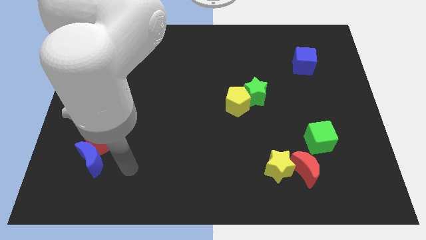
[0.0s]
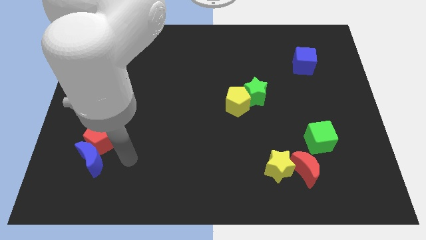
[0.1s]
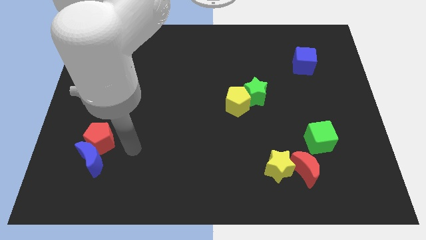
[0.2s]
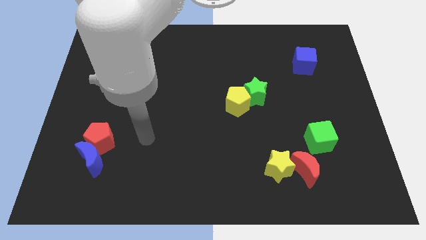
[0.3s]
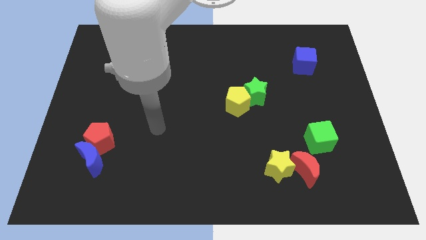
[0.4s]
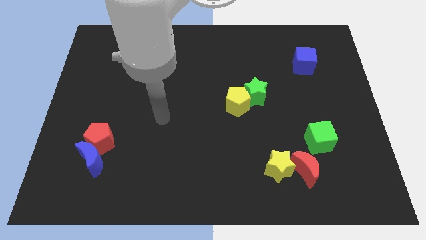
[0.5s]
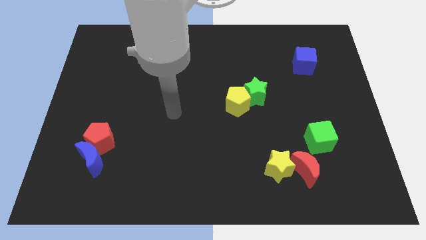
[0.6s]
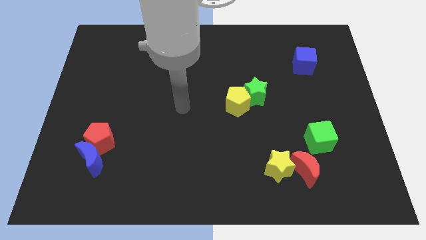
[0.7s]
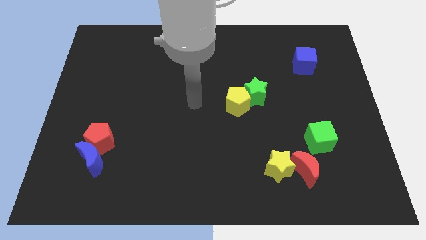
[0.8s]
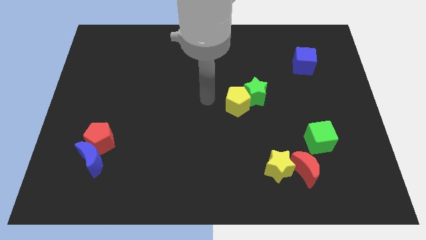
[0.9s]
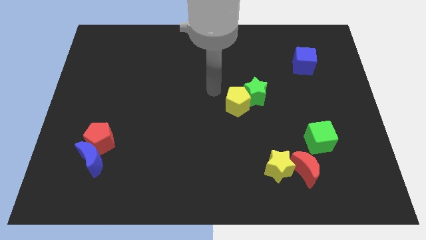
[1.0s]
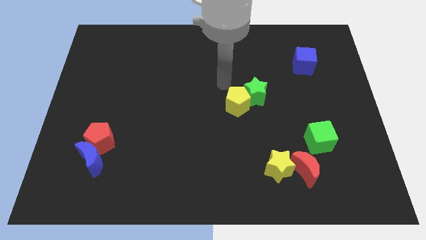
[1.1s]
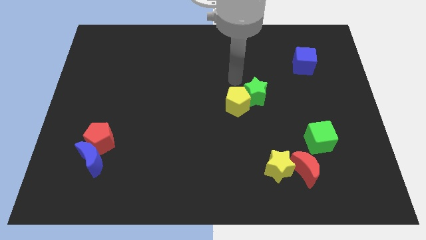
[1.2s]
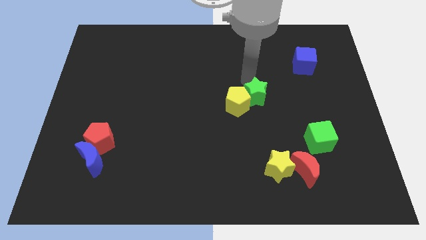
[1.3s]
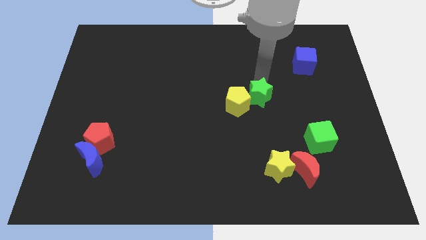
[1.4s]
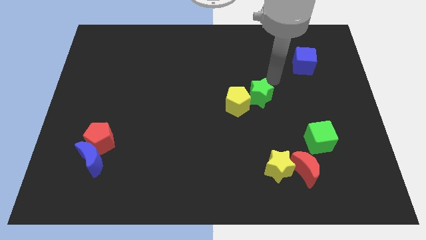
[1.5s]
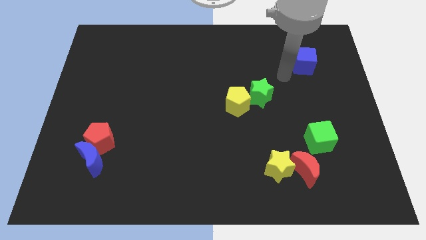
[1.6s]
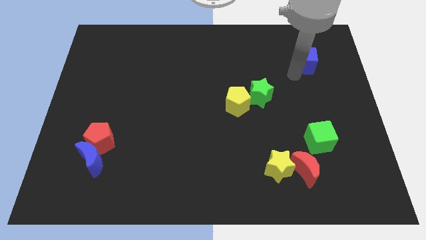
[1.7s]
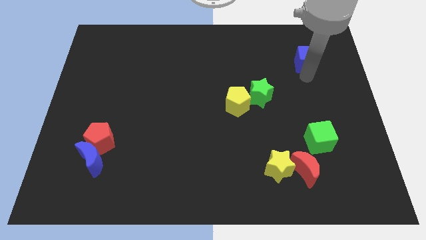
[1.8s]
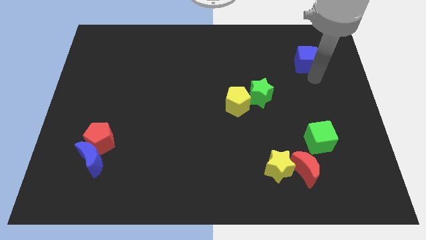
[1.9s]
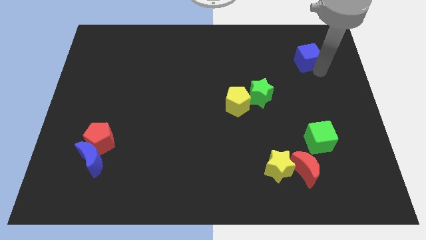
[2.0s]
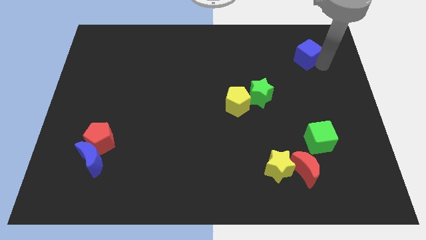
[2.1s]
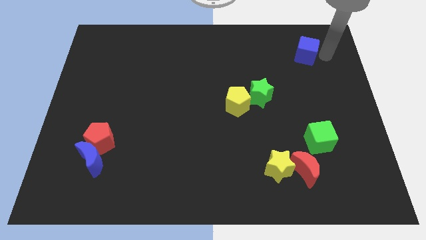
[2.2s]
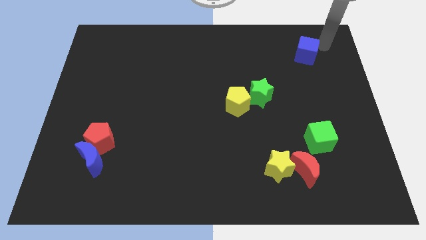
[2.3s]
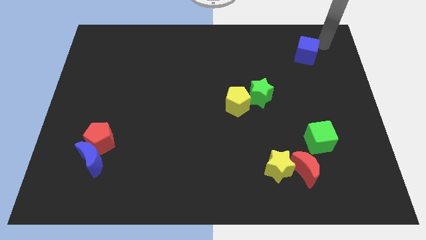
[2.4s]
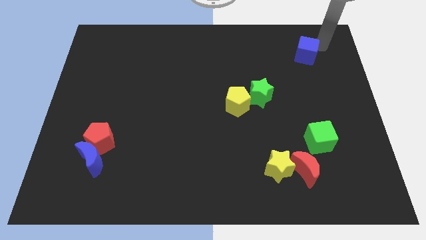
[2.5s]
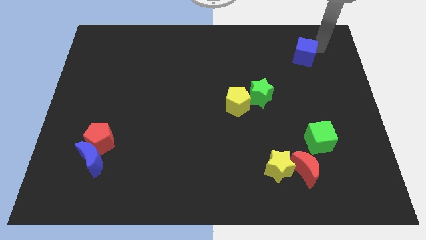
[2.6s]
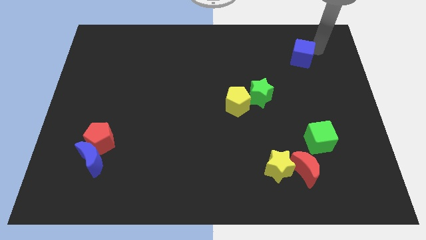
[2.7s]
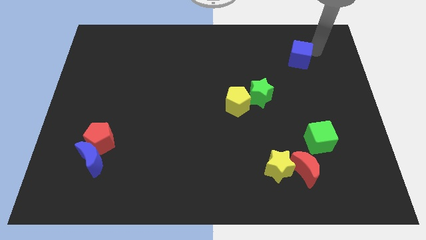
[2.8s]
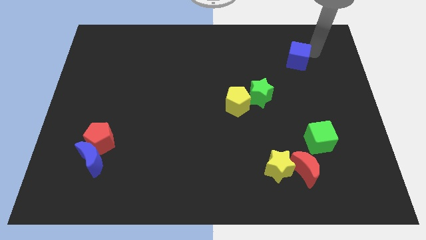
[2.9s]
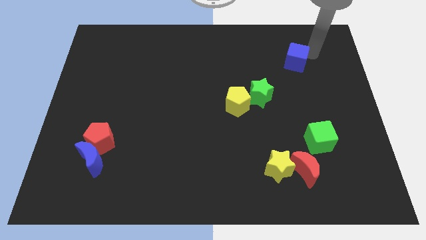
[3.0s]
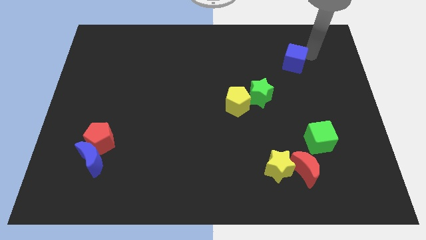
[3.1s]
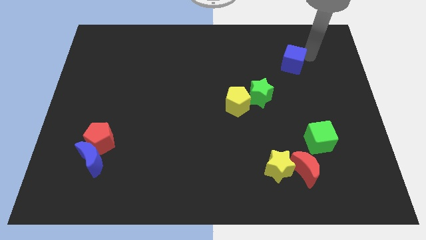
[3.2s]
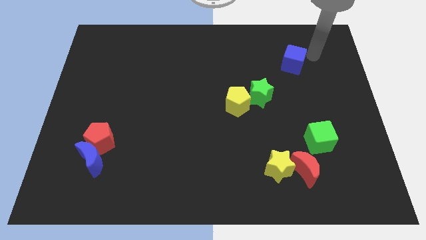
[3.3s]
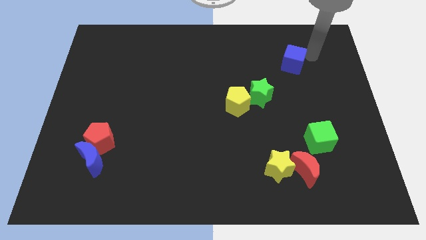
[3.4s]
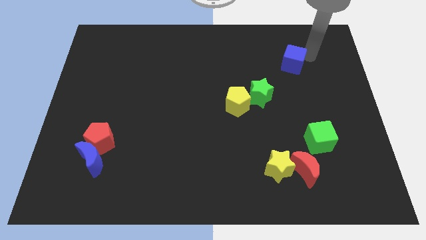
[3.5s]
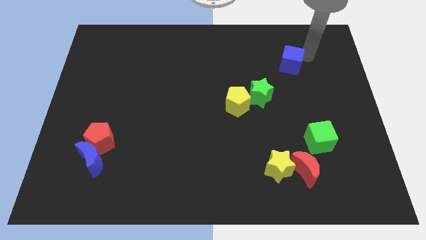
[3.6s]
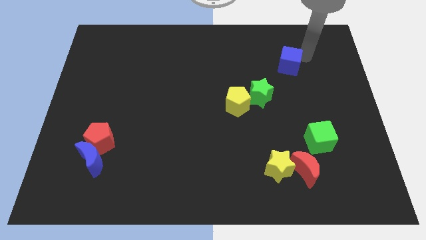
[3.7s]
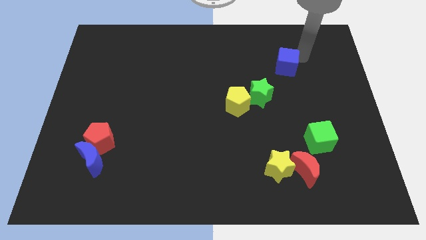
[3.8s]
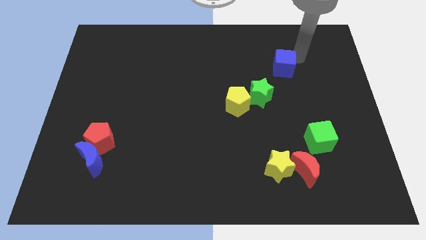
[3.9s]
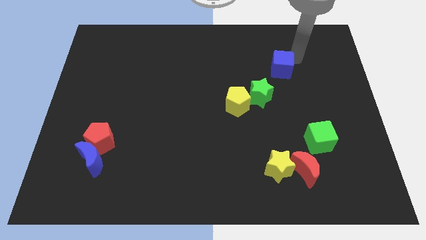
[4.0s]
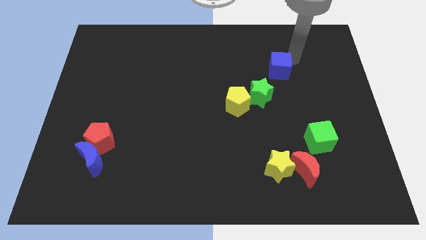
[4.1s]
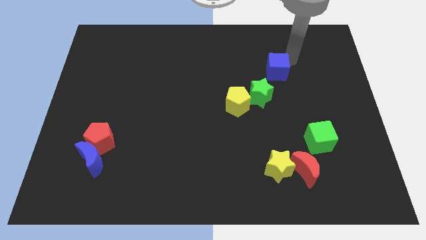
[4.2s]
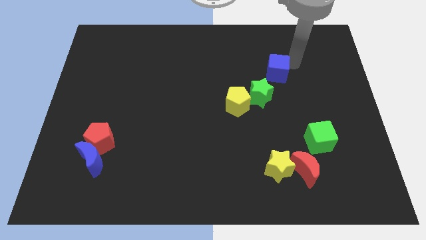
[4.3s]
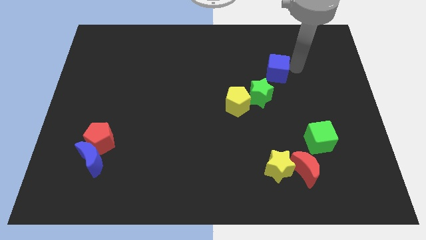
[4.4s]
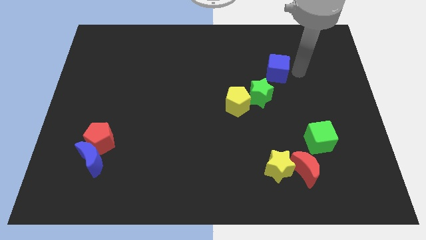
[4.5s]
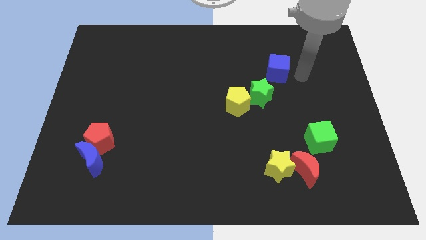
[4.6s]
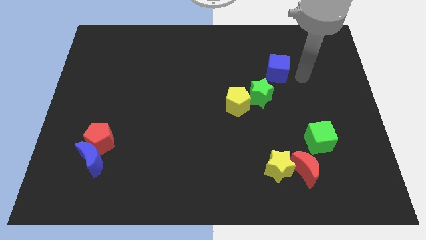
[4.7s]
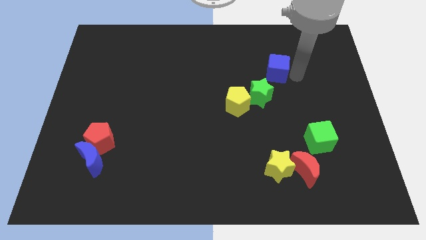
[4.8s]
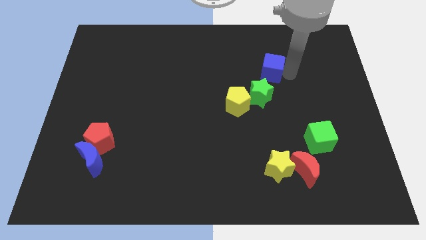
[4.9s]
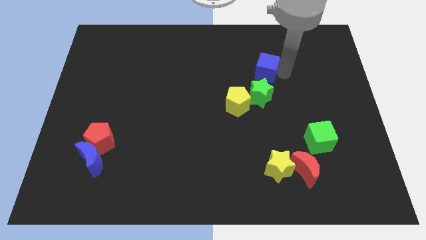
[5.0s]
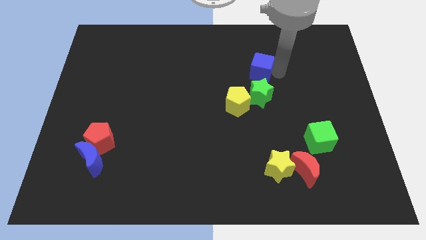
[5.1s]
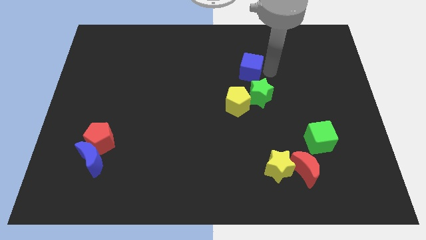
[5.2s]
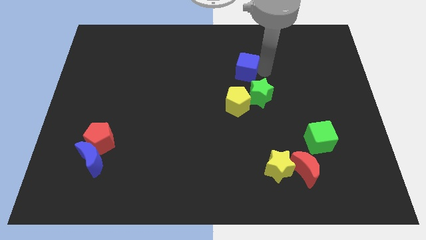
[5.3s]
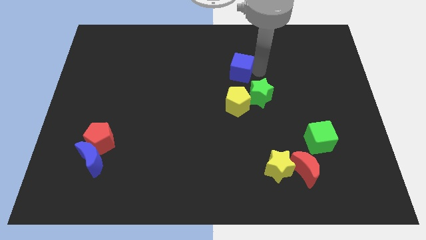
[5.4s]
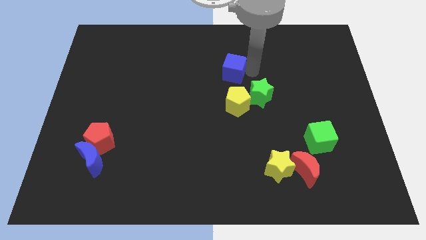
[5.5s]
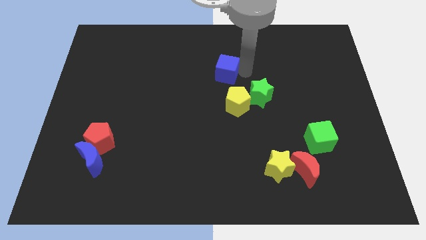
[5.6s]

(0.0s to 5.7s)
move the blue cube to the left

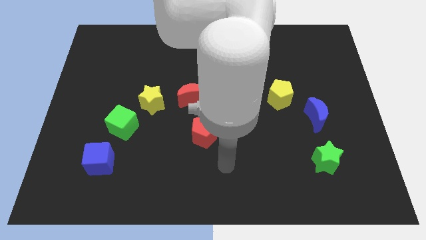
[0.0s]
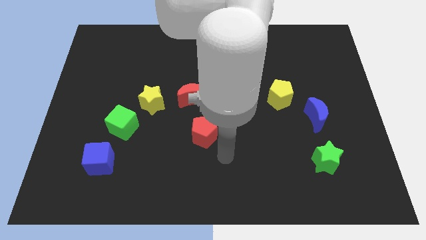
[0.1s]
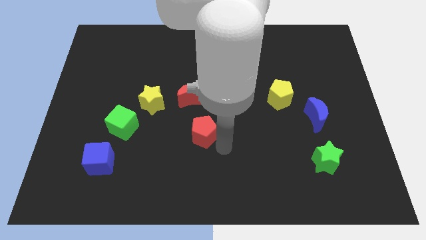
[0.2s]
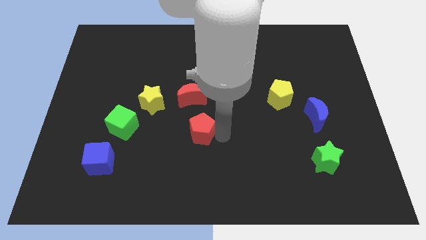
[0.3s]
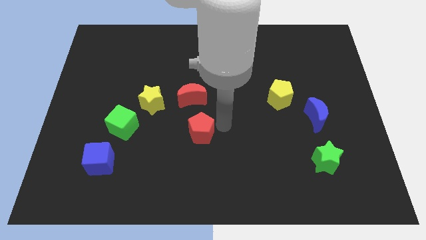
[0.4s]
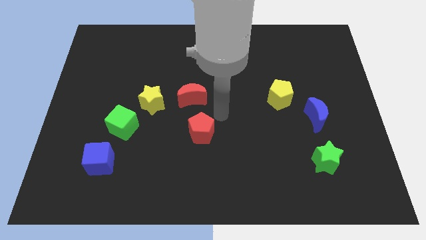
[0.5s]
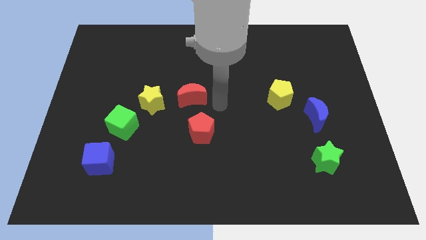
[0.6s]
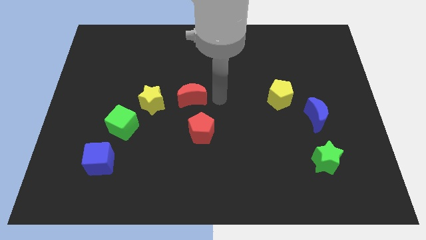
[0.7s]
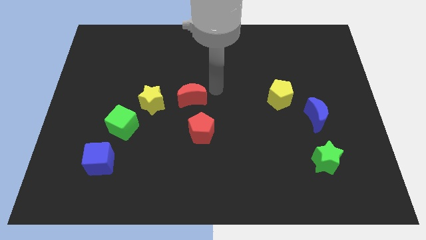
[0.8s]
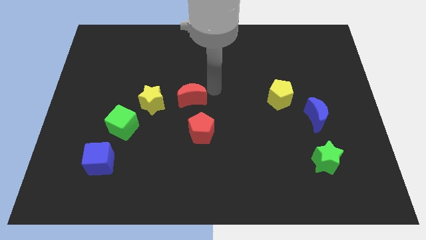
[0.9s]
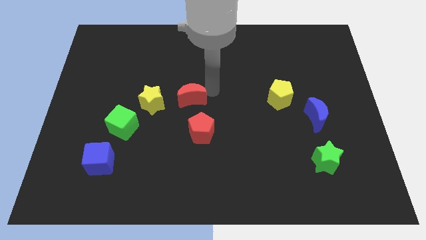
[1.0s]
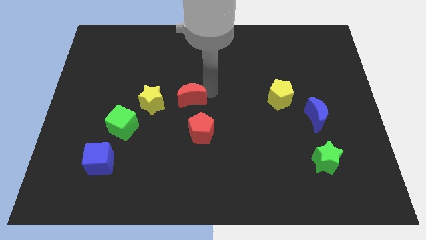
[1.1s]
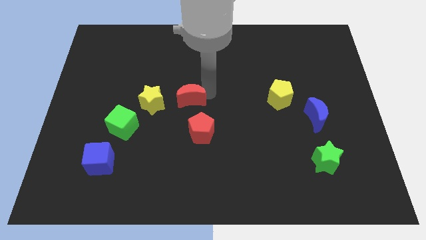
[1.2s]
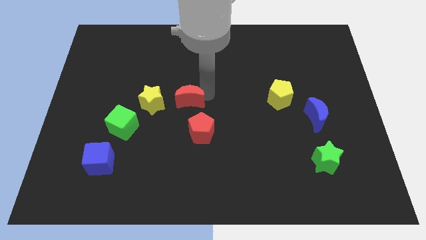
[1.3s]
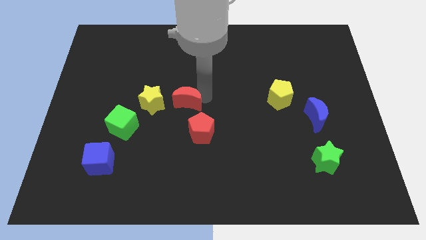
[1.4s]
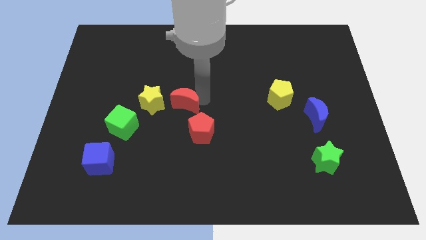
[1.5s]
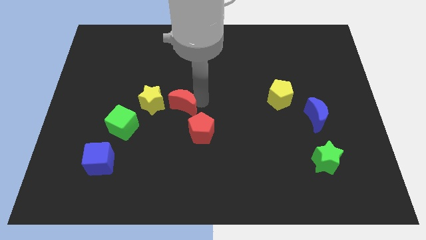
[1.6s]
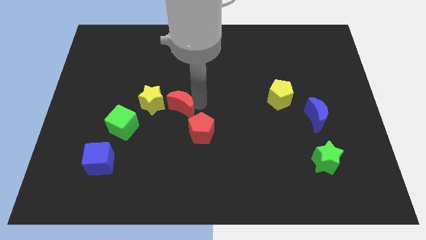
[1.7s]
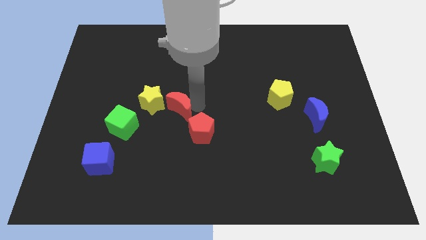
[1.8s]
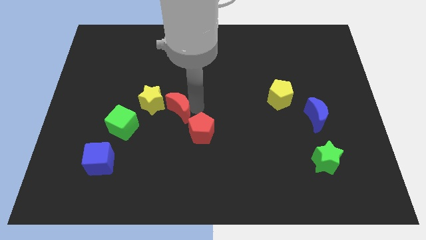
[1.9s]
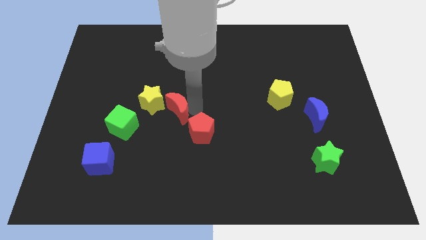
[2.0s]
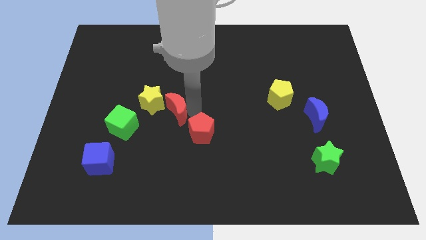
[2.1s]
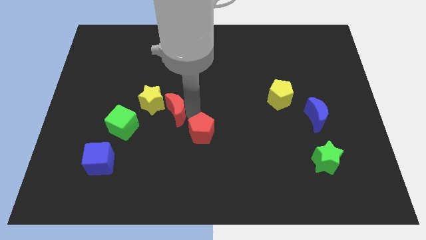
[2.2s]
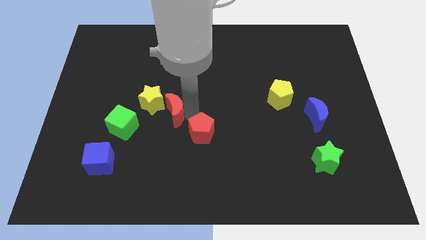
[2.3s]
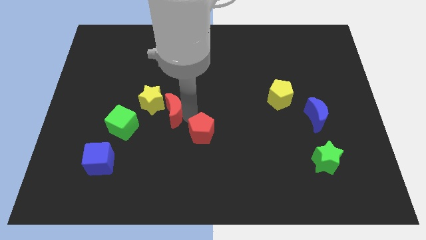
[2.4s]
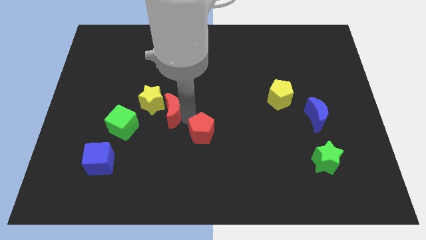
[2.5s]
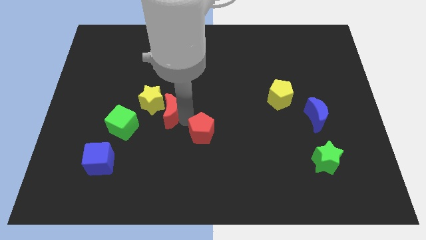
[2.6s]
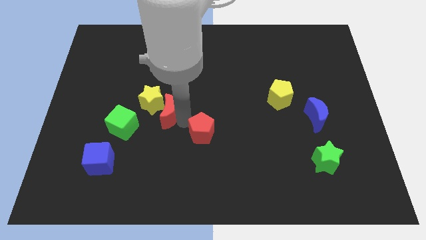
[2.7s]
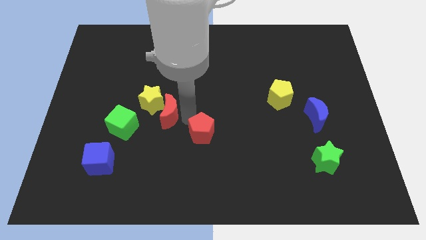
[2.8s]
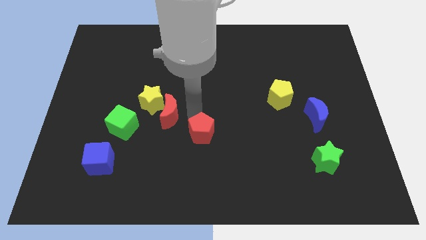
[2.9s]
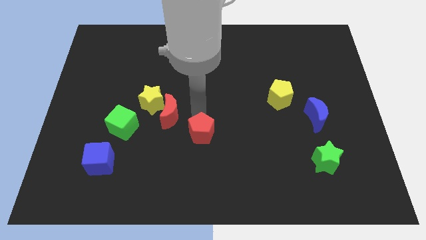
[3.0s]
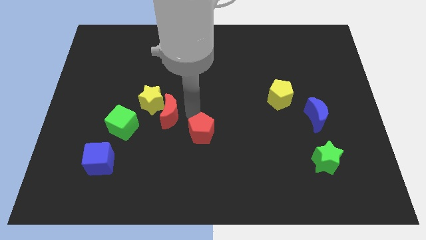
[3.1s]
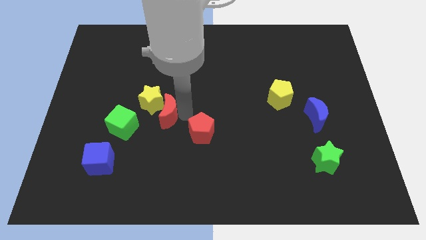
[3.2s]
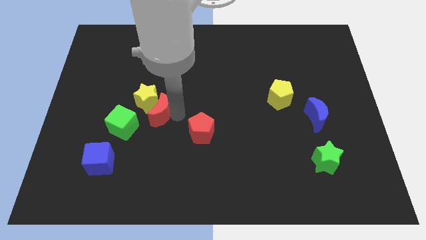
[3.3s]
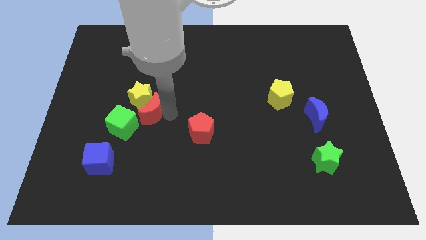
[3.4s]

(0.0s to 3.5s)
slide the red moon a little to the left
